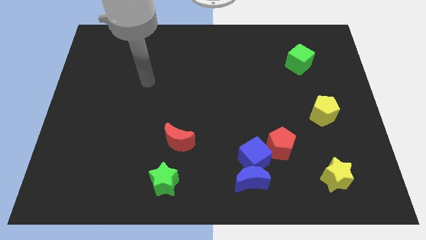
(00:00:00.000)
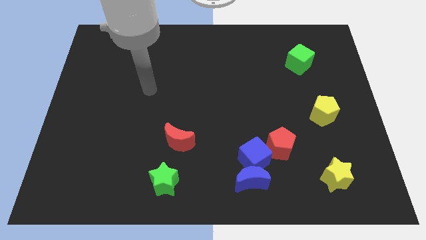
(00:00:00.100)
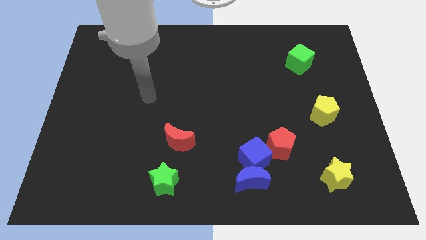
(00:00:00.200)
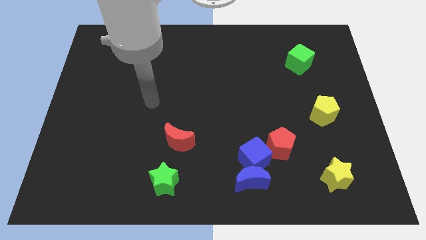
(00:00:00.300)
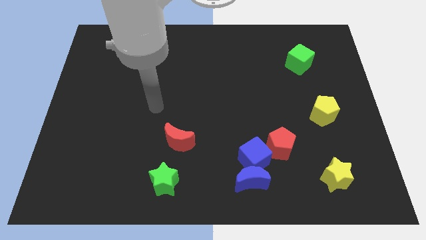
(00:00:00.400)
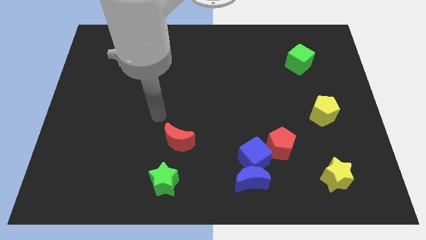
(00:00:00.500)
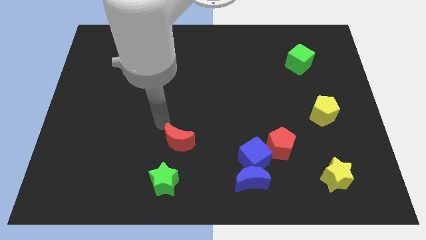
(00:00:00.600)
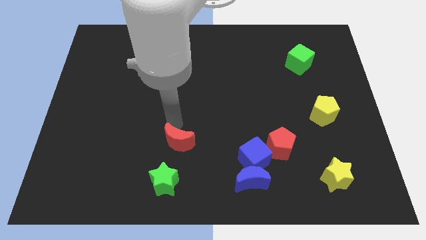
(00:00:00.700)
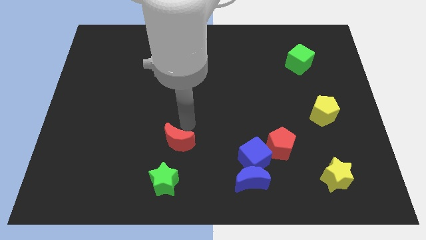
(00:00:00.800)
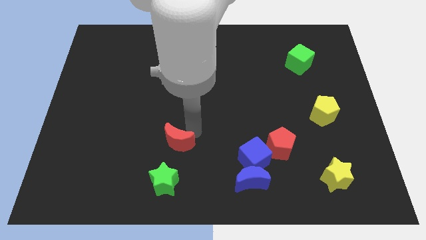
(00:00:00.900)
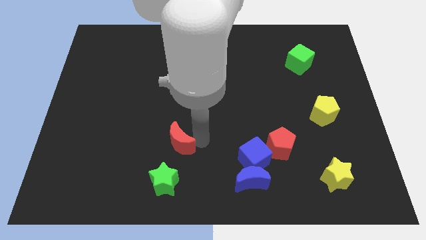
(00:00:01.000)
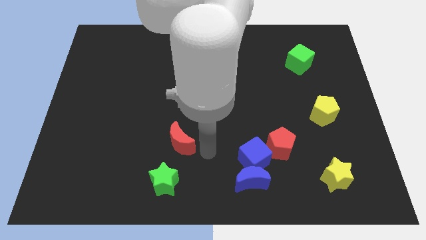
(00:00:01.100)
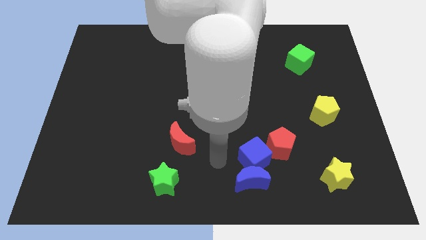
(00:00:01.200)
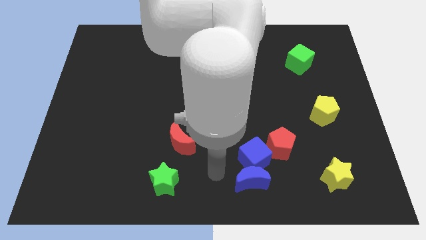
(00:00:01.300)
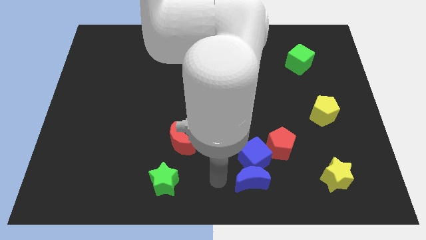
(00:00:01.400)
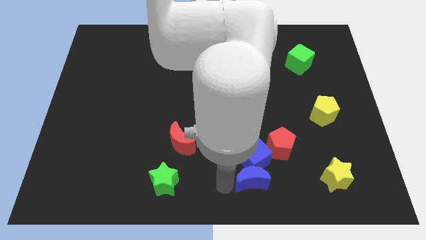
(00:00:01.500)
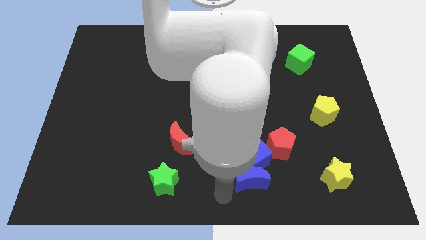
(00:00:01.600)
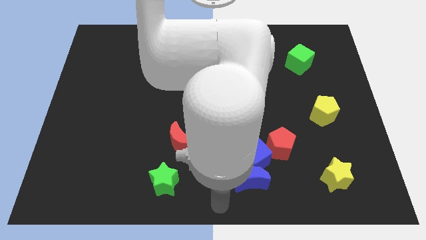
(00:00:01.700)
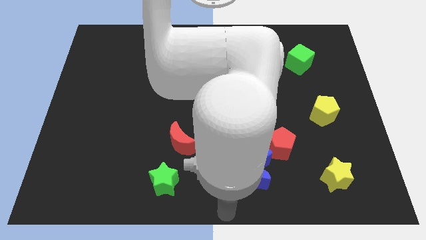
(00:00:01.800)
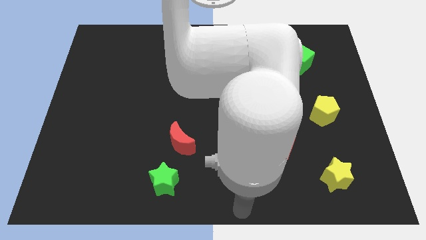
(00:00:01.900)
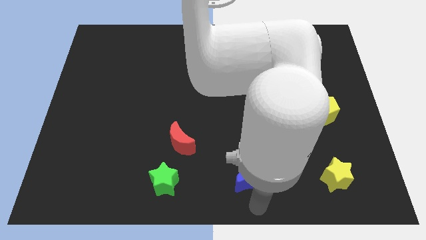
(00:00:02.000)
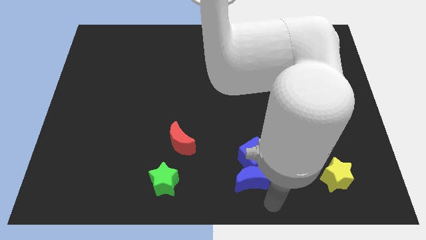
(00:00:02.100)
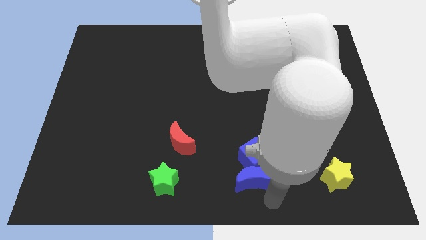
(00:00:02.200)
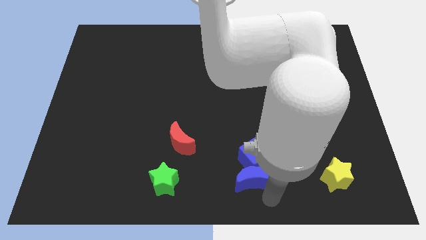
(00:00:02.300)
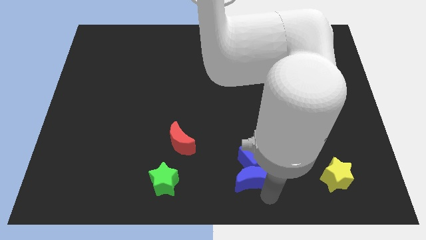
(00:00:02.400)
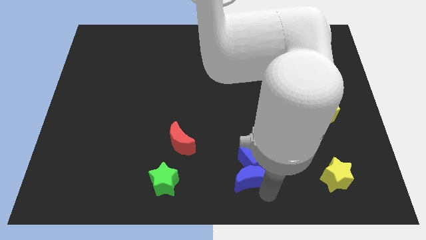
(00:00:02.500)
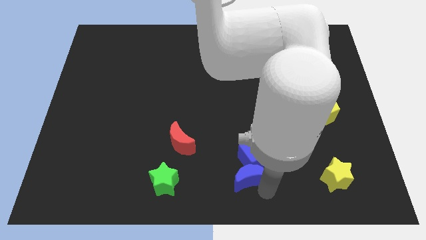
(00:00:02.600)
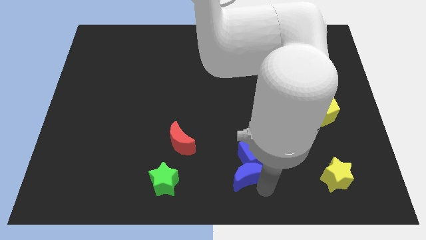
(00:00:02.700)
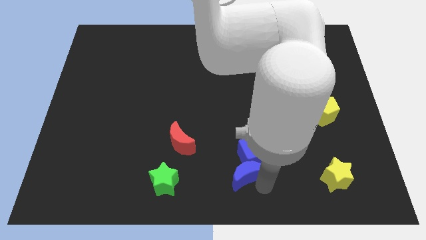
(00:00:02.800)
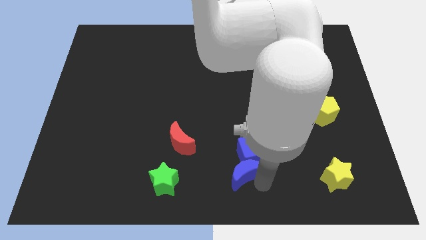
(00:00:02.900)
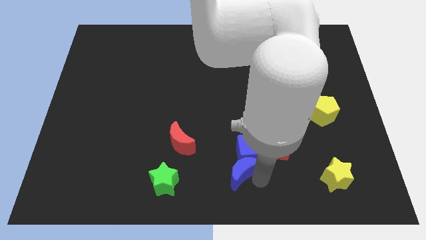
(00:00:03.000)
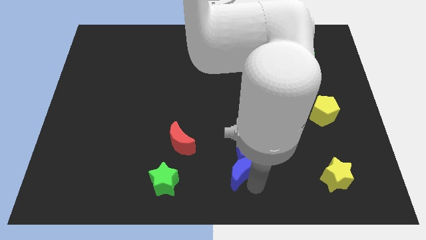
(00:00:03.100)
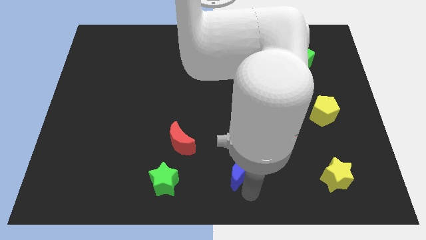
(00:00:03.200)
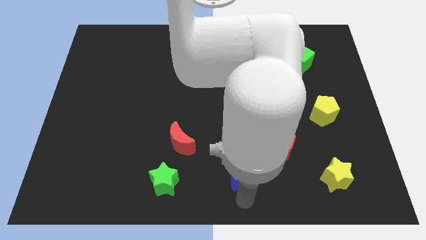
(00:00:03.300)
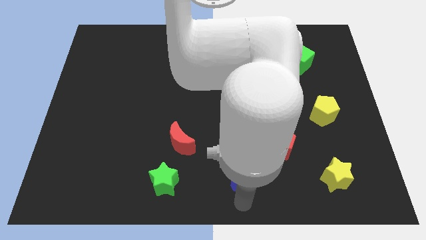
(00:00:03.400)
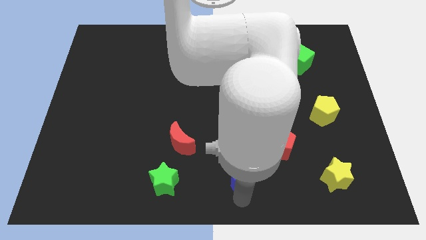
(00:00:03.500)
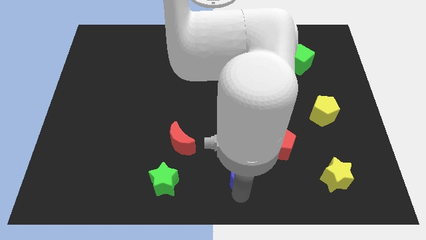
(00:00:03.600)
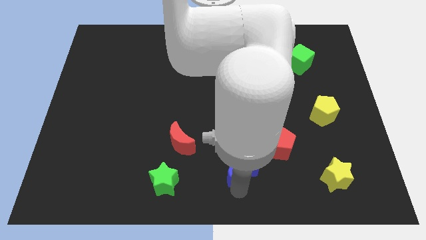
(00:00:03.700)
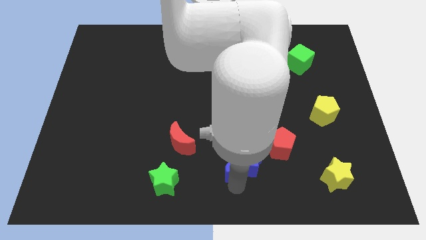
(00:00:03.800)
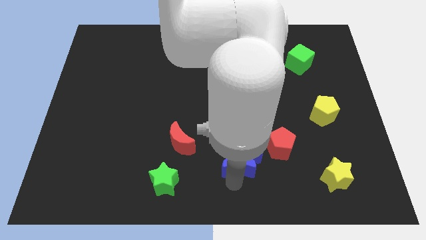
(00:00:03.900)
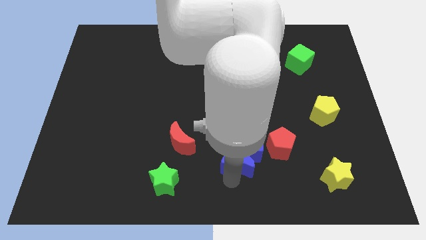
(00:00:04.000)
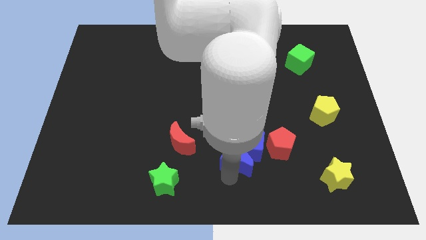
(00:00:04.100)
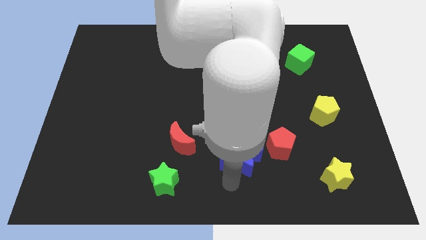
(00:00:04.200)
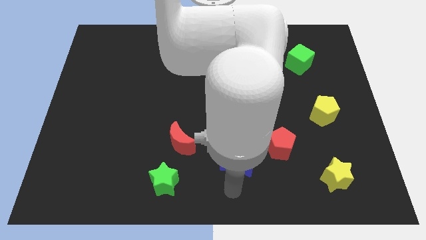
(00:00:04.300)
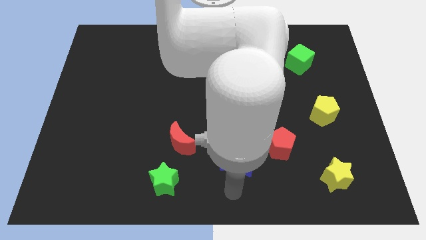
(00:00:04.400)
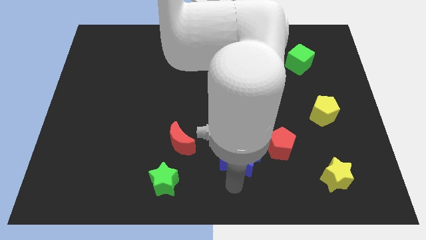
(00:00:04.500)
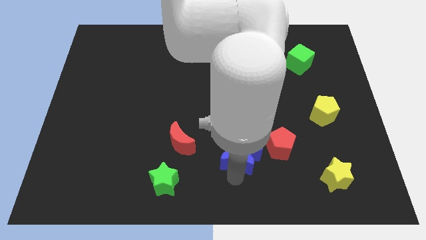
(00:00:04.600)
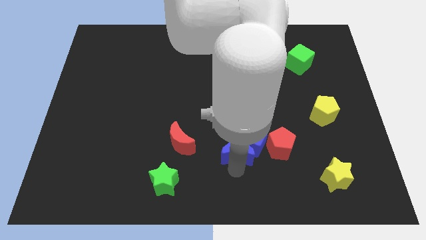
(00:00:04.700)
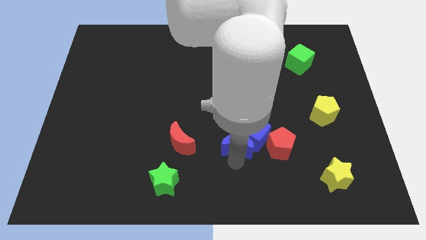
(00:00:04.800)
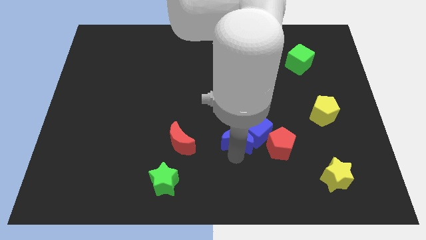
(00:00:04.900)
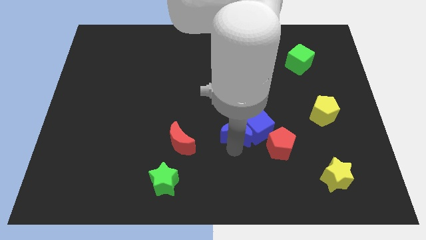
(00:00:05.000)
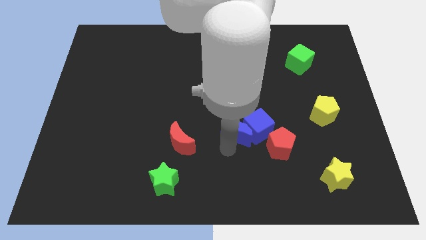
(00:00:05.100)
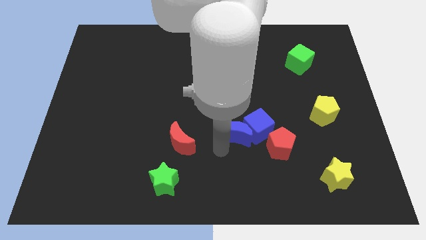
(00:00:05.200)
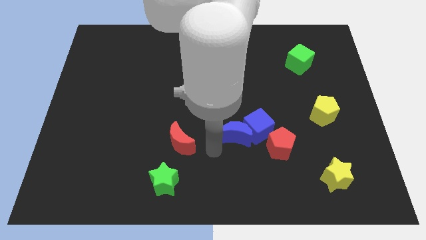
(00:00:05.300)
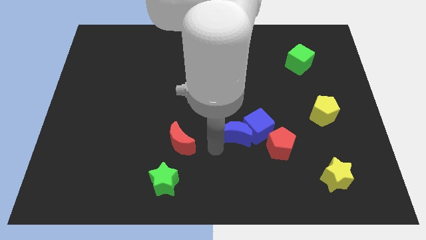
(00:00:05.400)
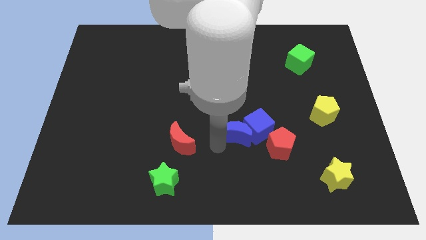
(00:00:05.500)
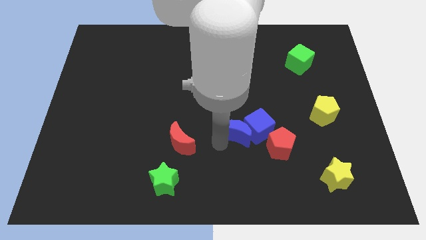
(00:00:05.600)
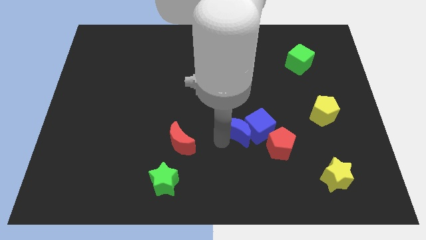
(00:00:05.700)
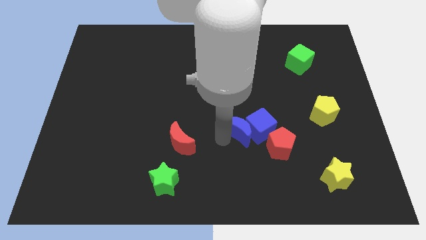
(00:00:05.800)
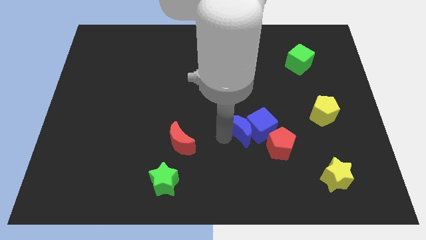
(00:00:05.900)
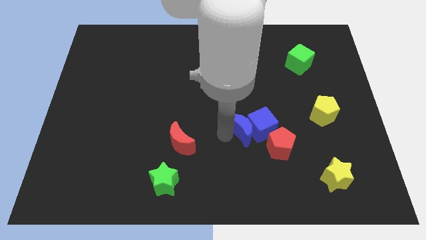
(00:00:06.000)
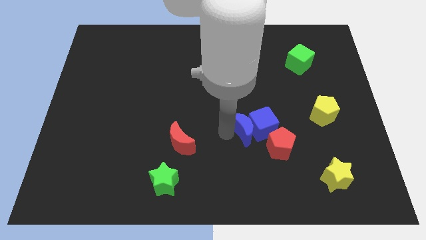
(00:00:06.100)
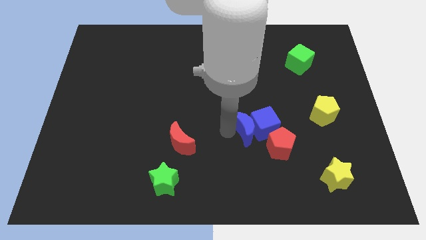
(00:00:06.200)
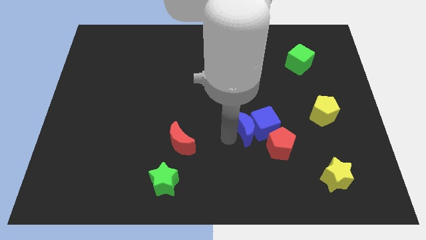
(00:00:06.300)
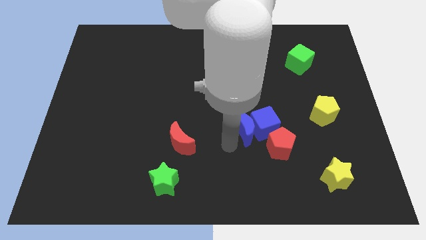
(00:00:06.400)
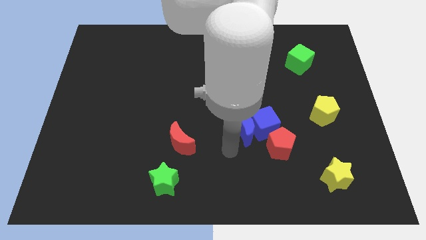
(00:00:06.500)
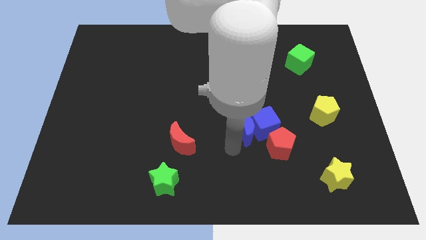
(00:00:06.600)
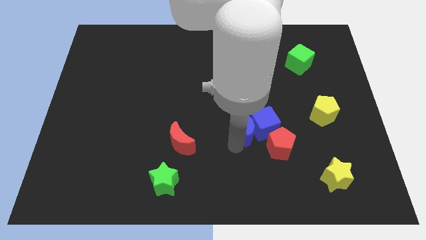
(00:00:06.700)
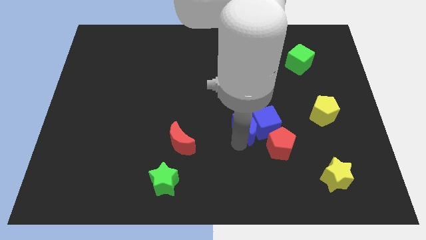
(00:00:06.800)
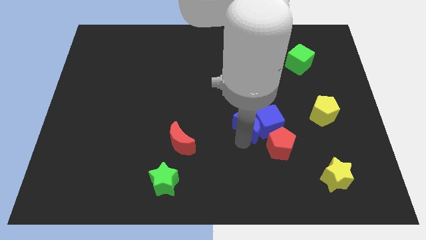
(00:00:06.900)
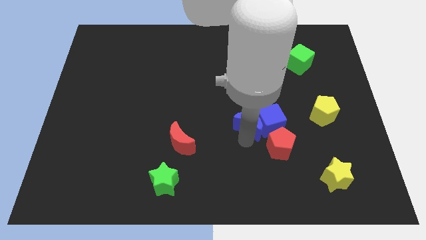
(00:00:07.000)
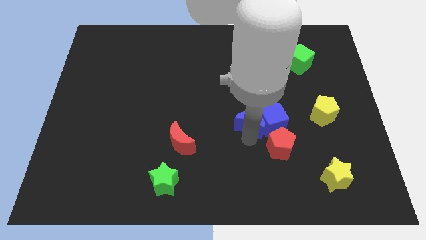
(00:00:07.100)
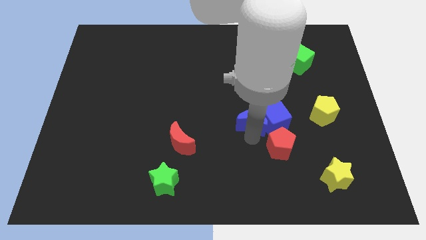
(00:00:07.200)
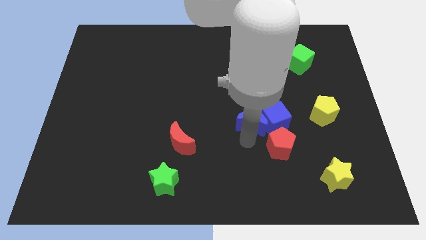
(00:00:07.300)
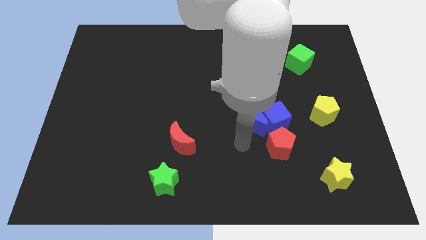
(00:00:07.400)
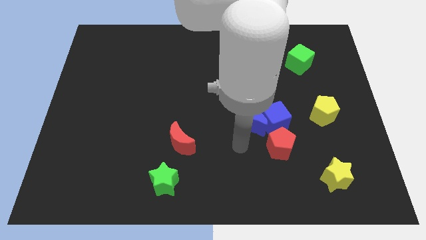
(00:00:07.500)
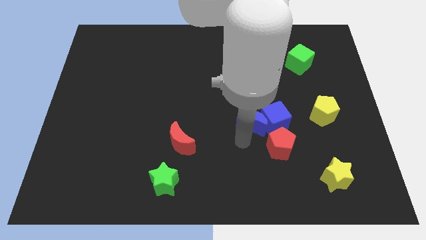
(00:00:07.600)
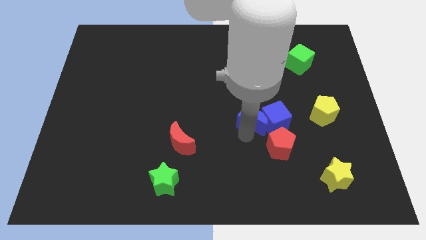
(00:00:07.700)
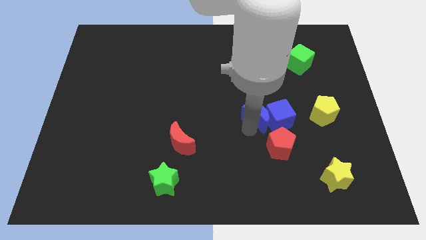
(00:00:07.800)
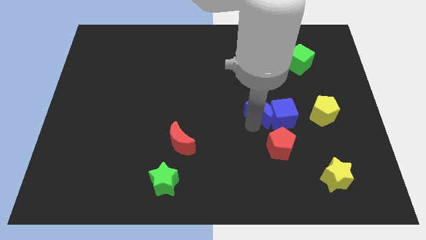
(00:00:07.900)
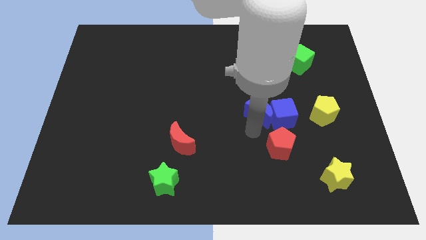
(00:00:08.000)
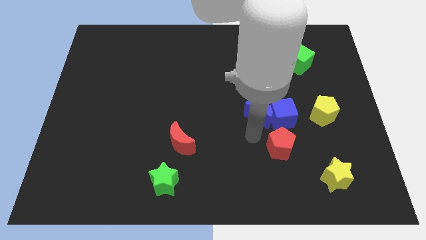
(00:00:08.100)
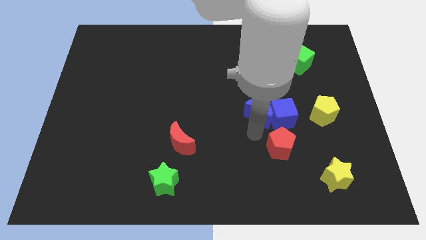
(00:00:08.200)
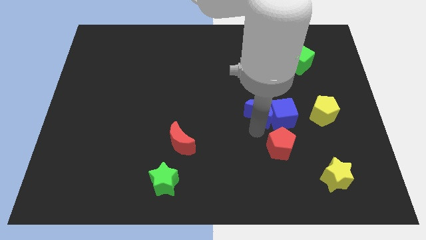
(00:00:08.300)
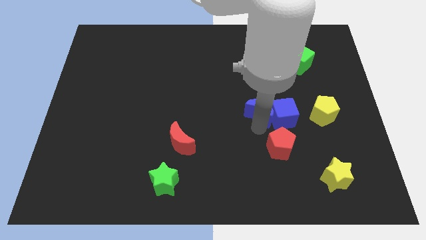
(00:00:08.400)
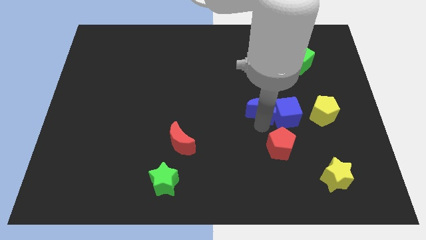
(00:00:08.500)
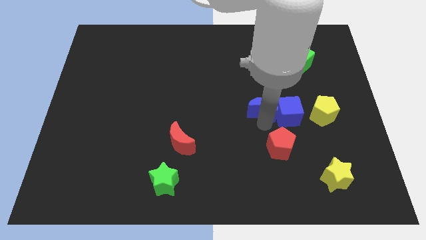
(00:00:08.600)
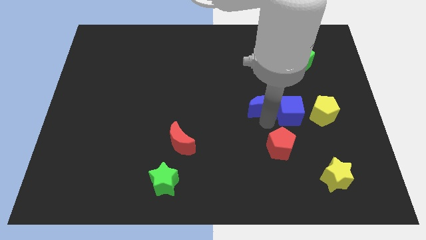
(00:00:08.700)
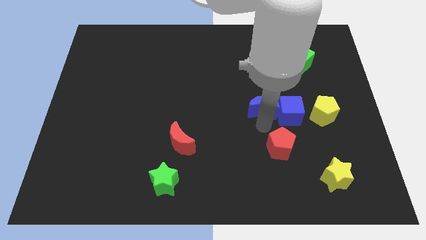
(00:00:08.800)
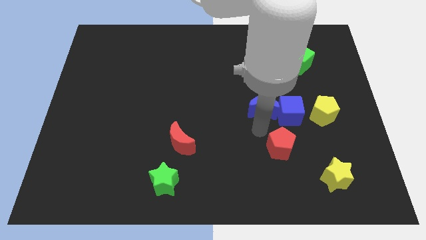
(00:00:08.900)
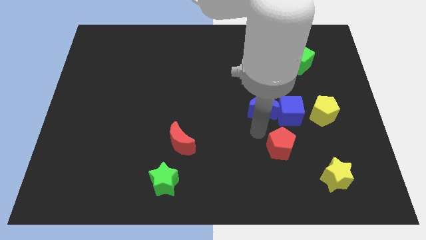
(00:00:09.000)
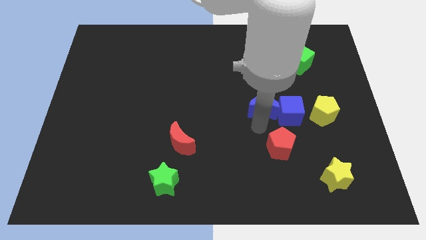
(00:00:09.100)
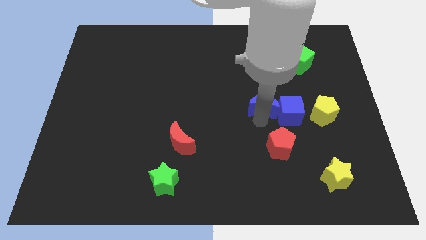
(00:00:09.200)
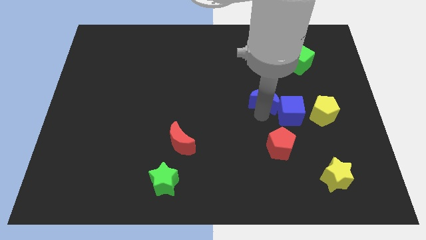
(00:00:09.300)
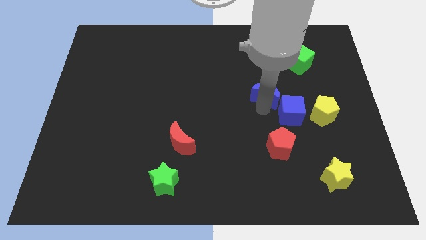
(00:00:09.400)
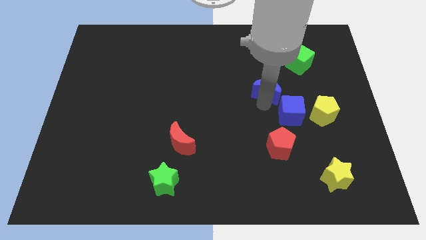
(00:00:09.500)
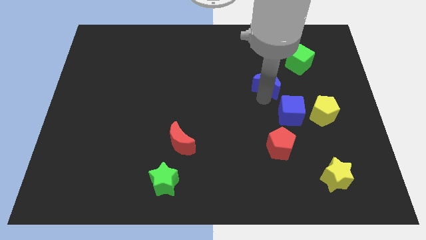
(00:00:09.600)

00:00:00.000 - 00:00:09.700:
slide the blue moon to the bottom left of the green cube
